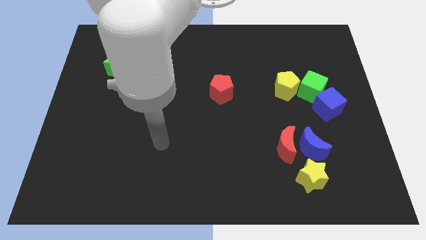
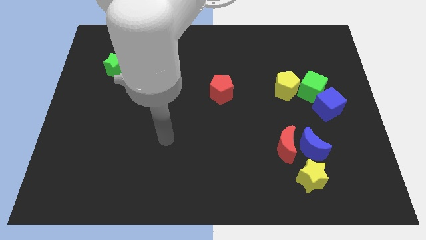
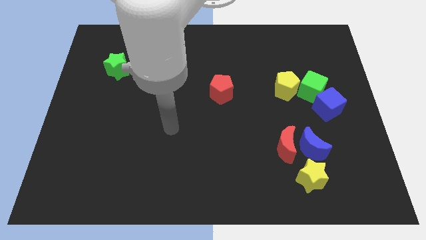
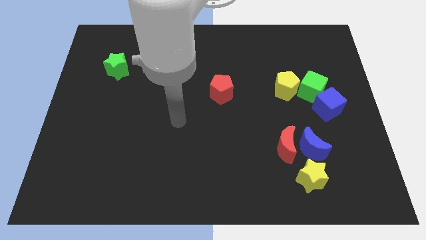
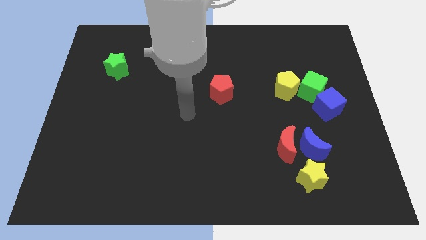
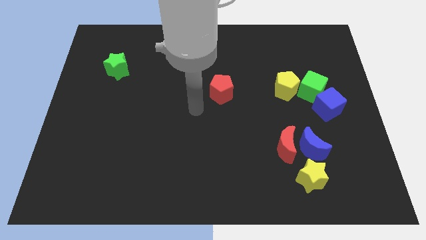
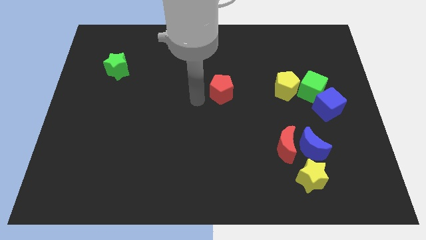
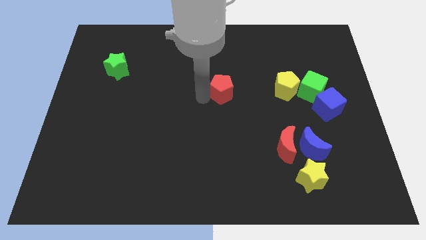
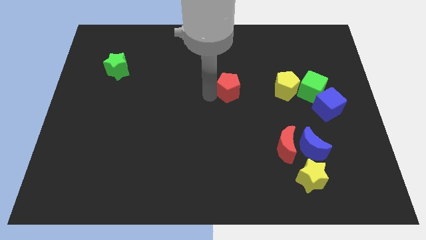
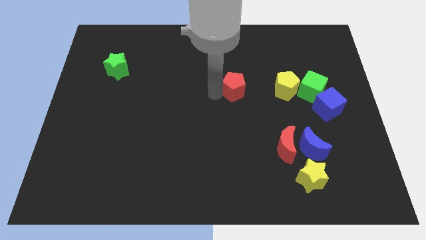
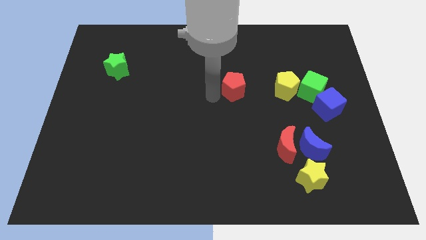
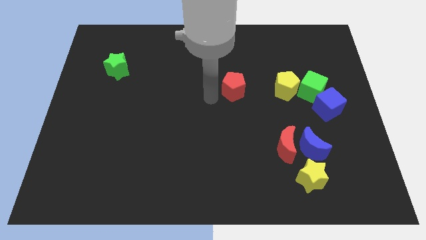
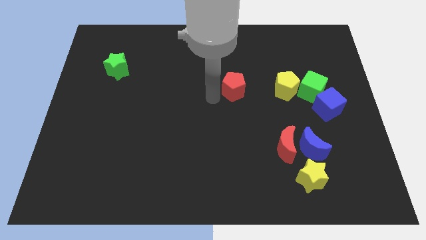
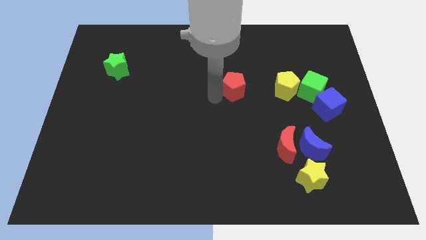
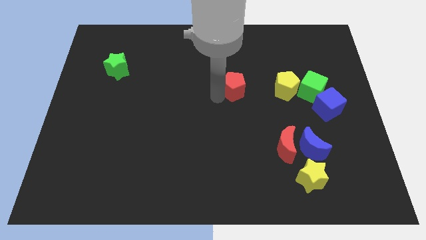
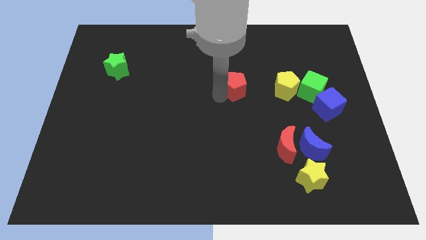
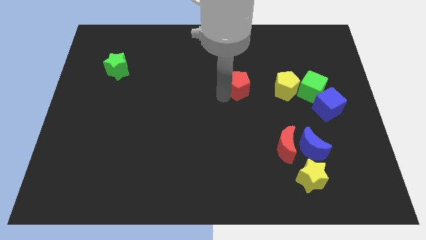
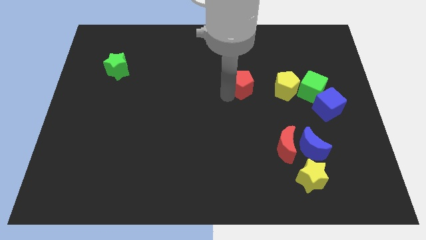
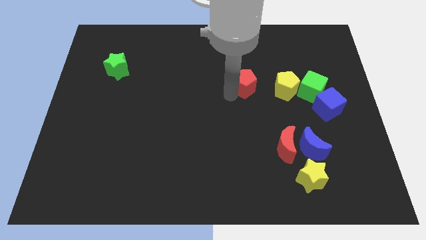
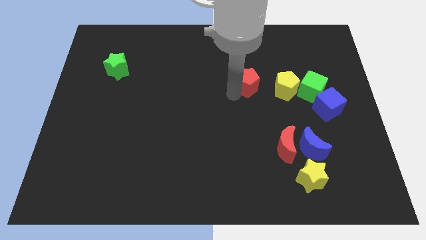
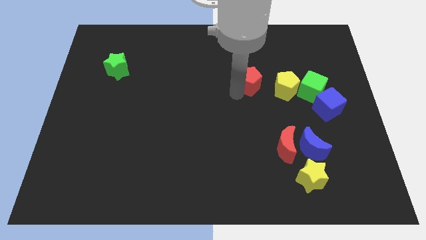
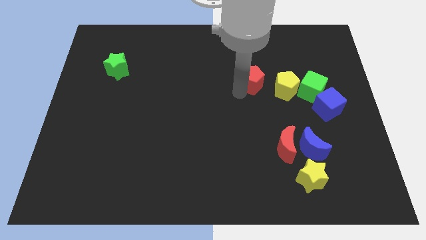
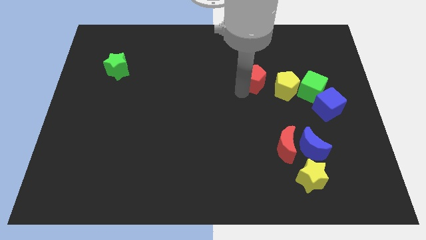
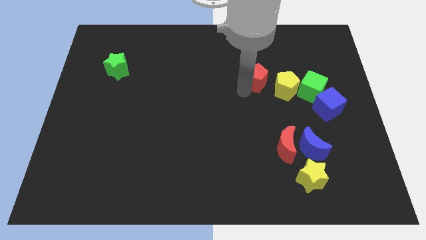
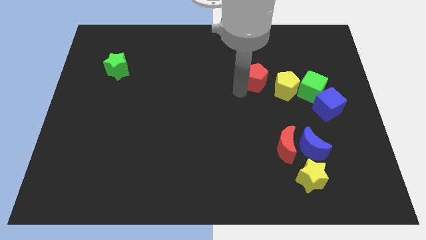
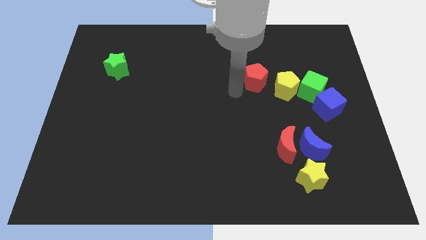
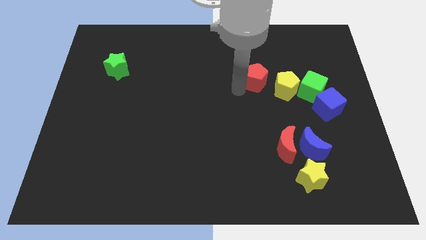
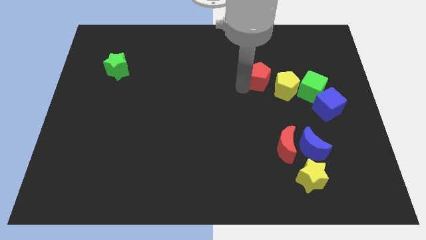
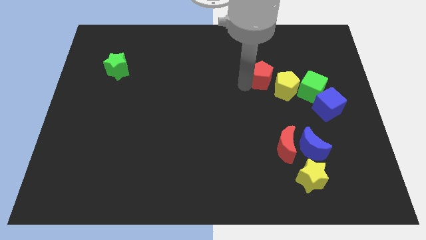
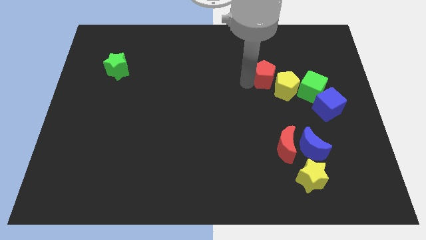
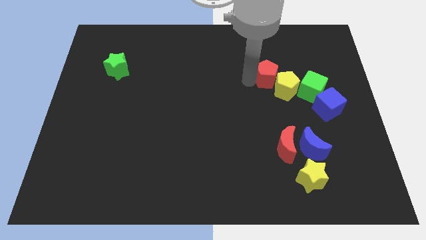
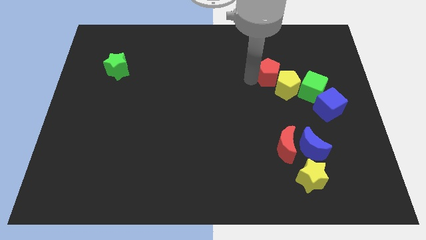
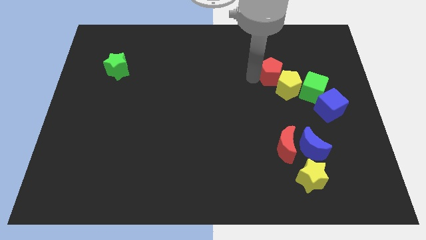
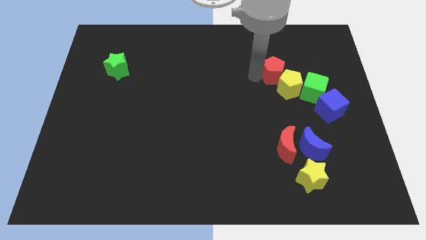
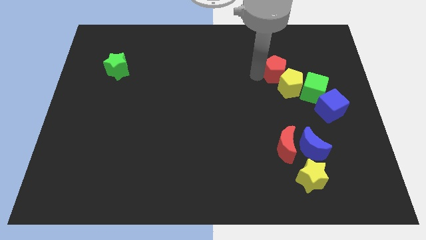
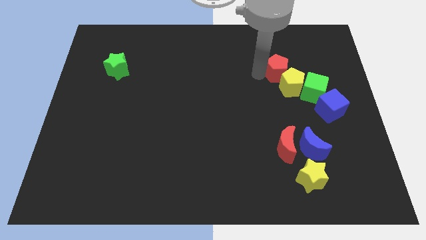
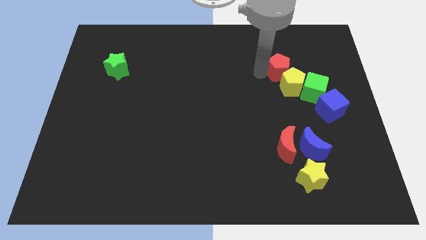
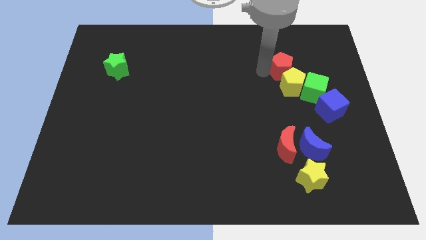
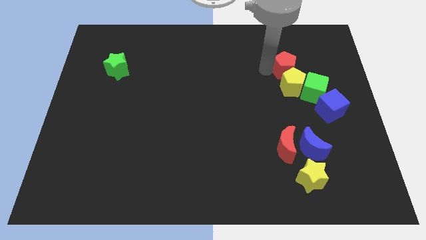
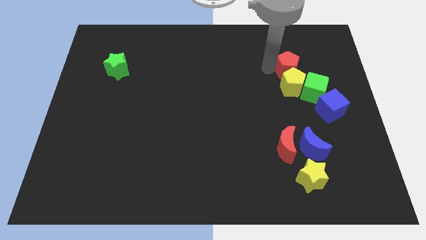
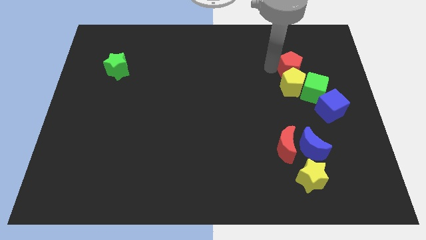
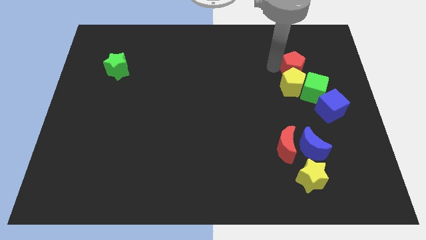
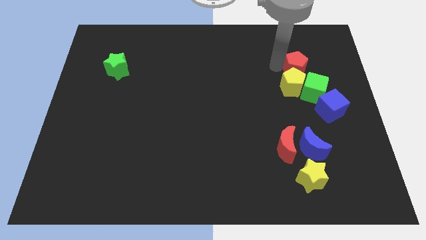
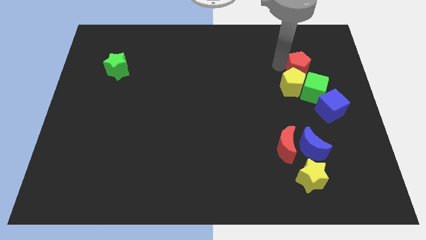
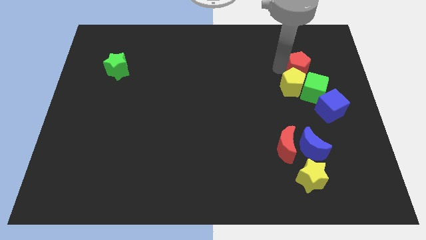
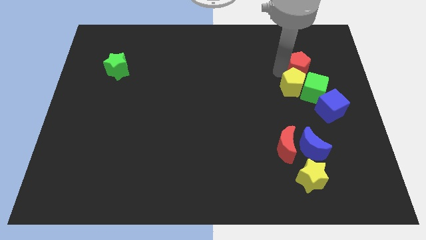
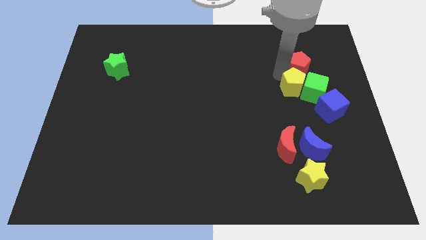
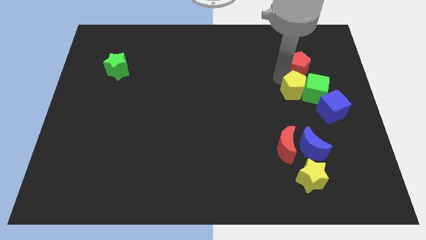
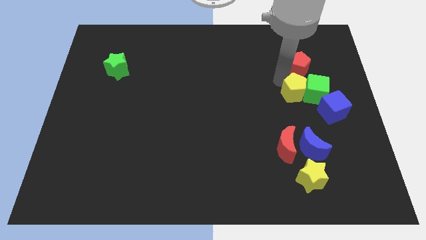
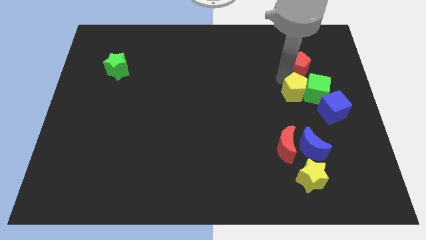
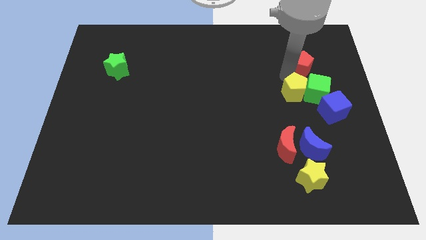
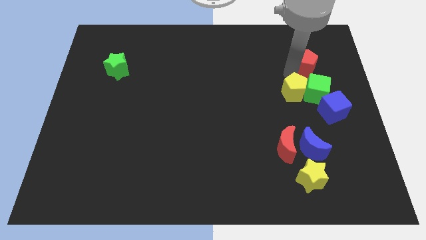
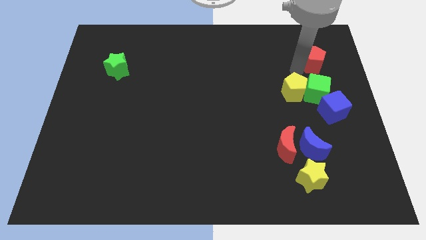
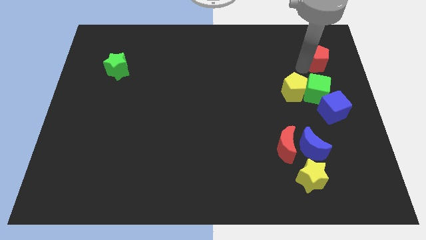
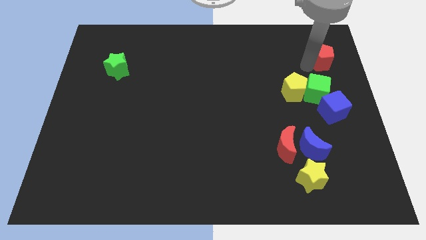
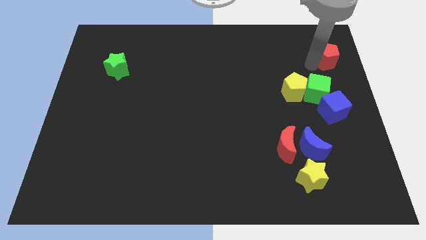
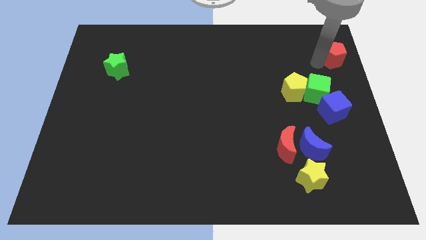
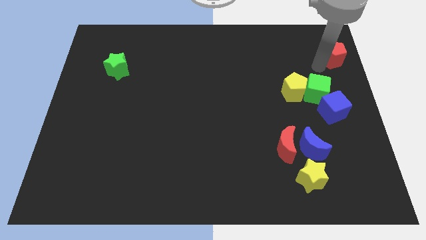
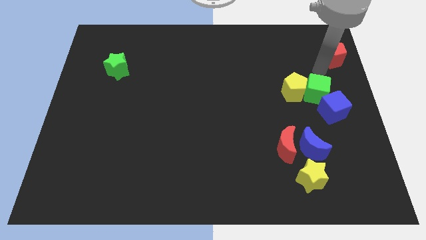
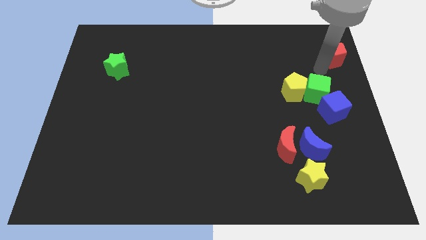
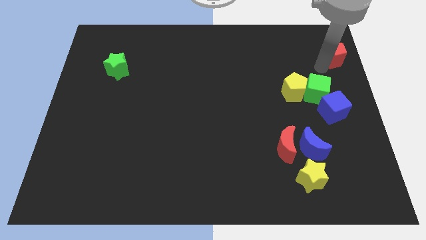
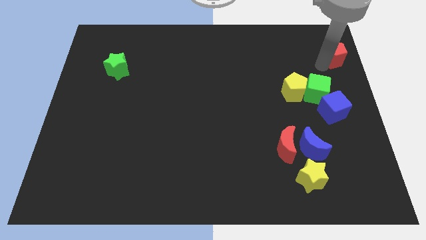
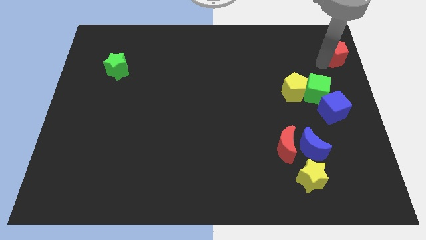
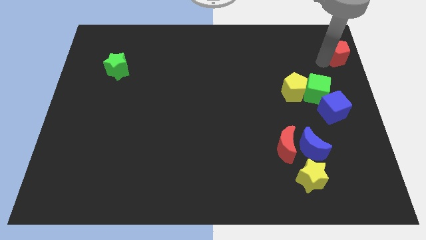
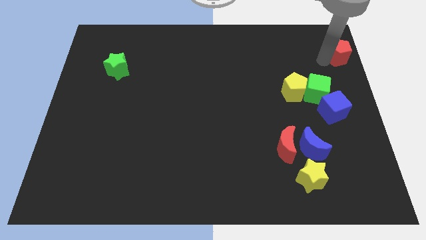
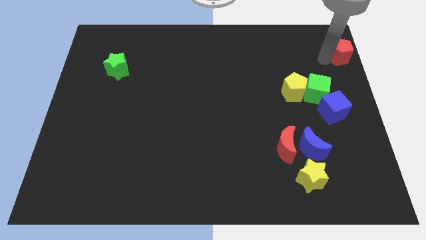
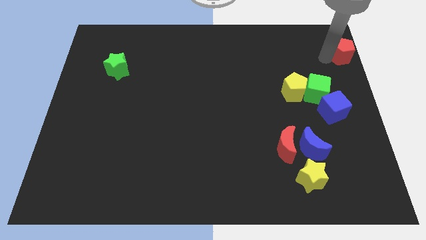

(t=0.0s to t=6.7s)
push the red pentagon to the upper right corner
